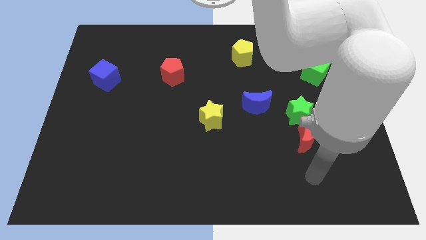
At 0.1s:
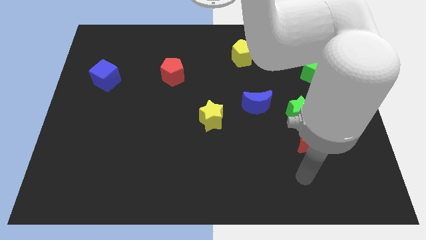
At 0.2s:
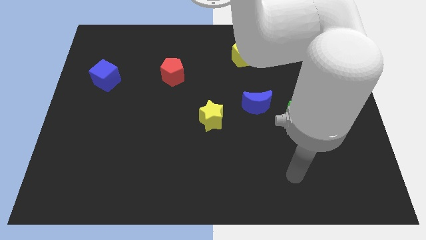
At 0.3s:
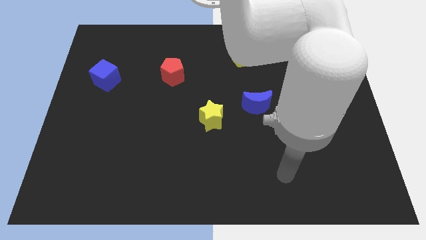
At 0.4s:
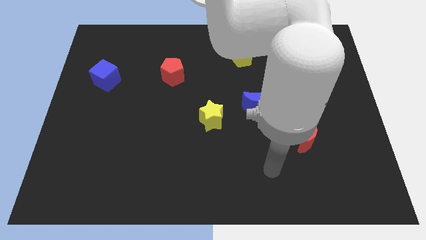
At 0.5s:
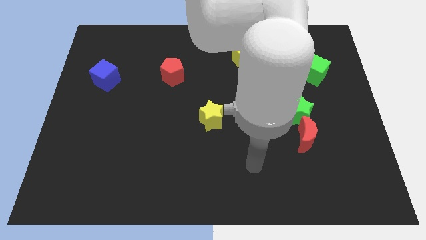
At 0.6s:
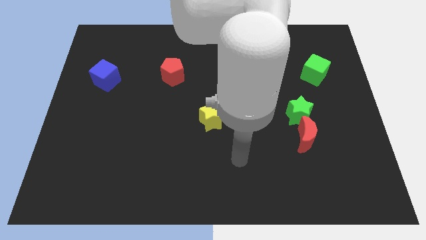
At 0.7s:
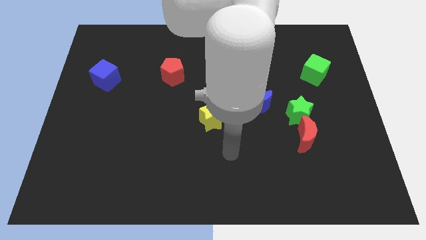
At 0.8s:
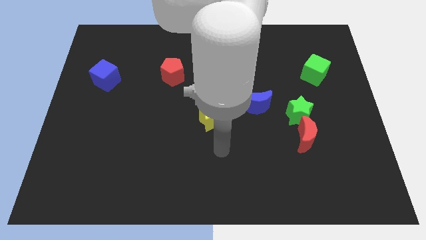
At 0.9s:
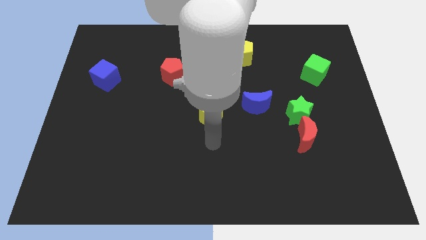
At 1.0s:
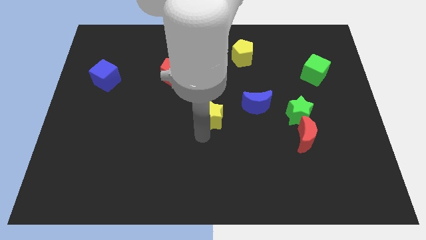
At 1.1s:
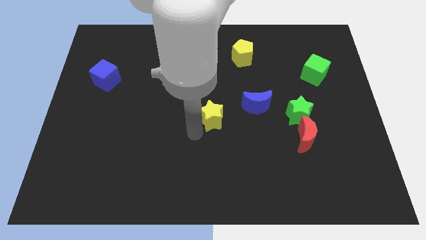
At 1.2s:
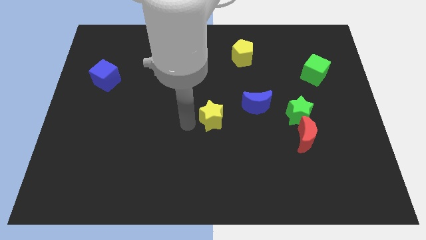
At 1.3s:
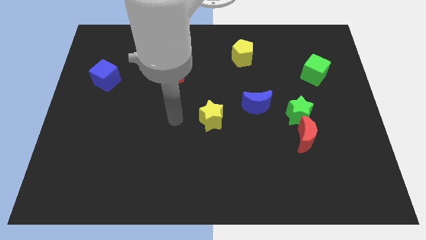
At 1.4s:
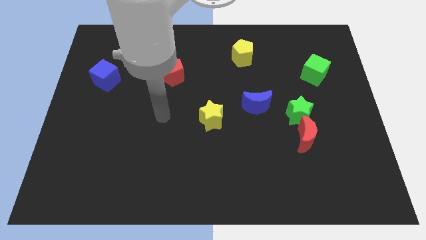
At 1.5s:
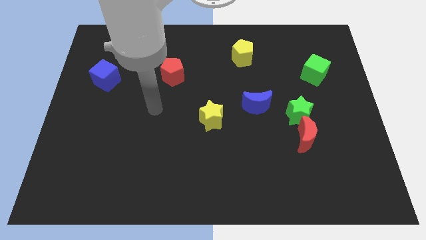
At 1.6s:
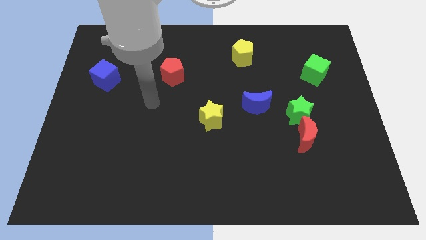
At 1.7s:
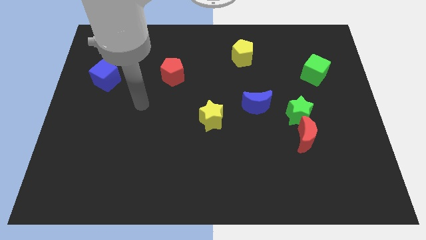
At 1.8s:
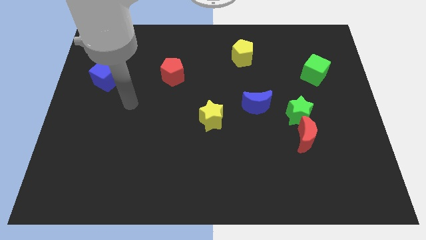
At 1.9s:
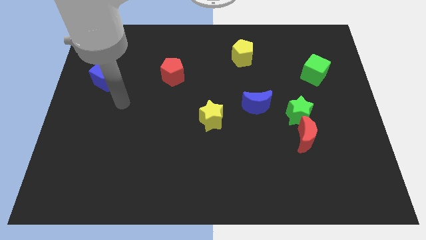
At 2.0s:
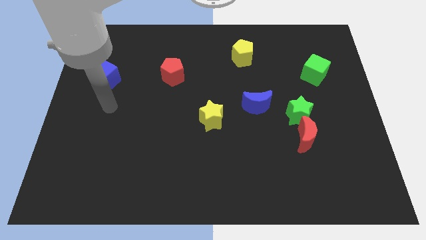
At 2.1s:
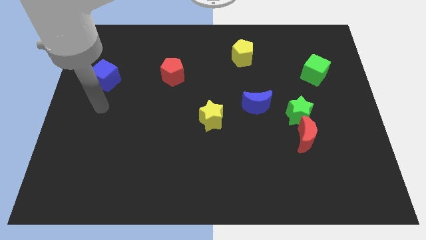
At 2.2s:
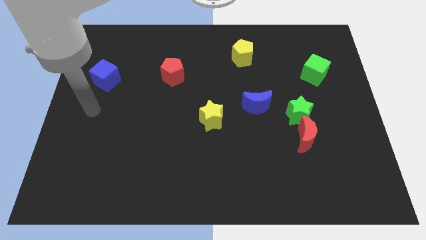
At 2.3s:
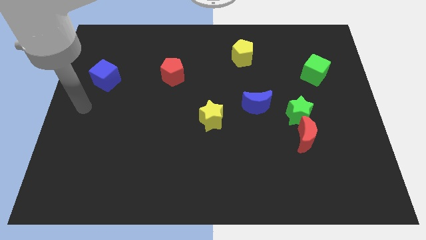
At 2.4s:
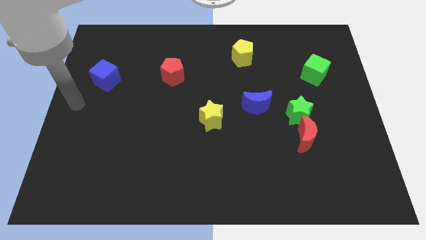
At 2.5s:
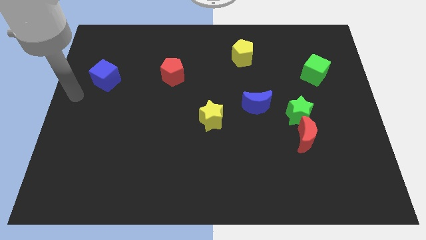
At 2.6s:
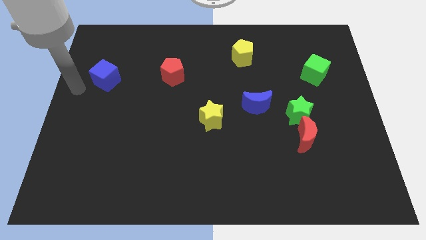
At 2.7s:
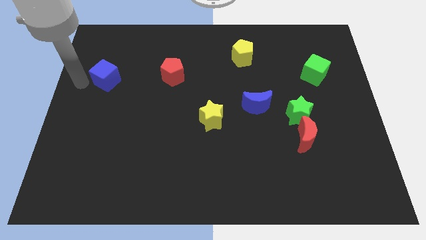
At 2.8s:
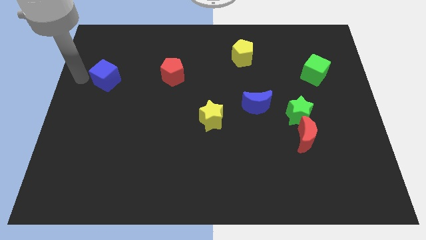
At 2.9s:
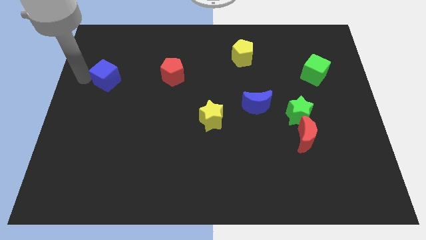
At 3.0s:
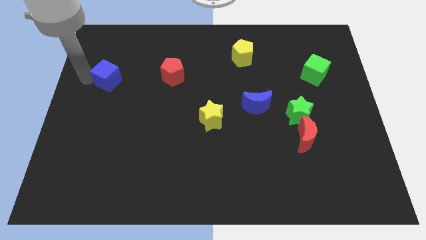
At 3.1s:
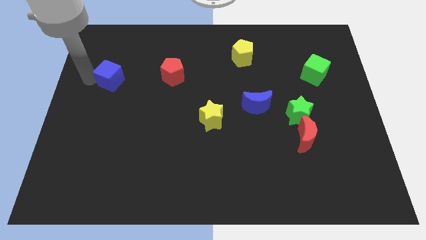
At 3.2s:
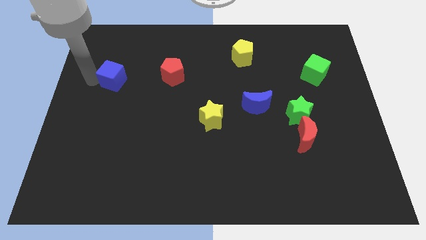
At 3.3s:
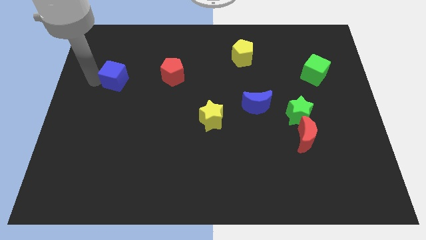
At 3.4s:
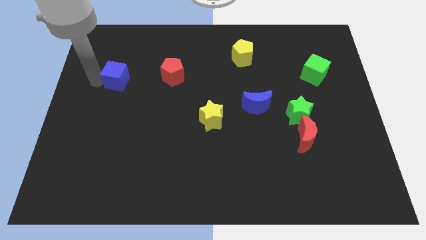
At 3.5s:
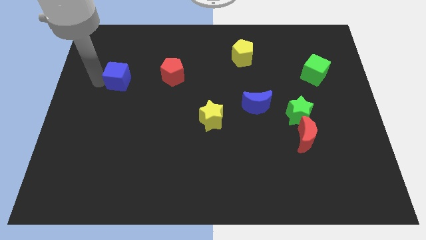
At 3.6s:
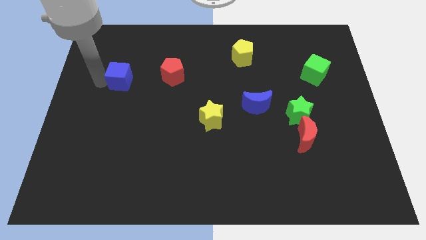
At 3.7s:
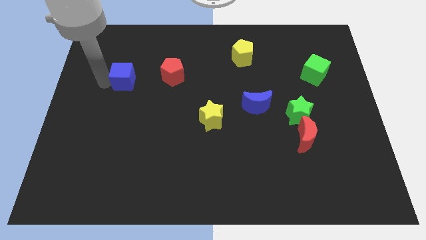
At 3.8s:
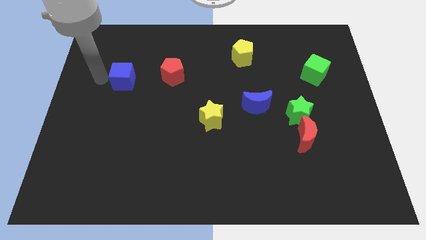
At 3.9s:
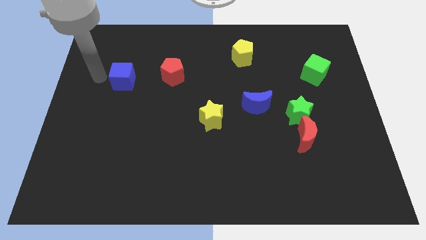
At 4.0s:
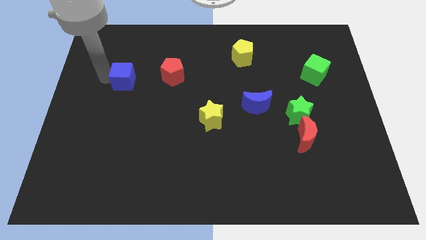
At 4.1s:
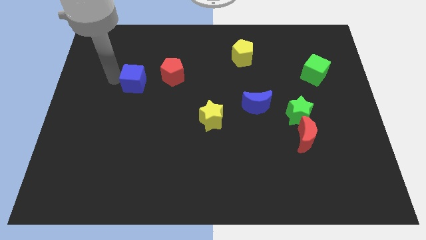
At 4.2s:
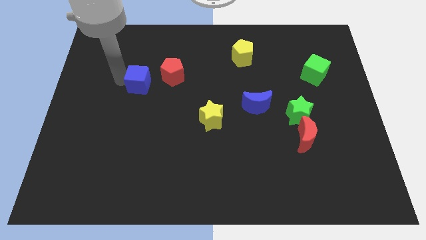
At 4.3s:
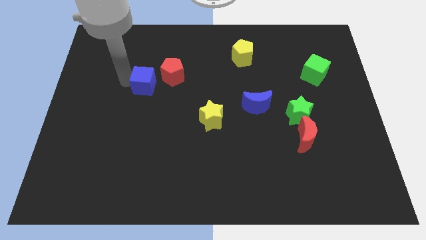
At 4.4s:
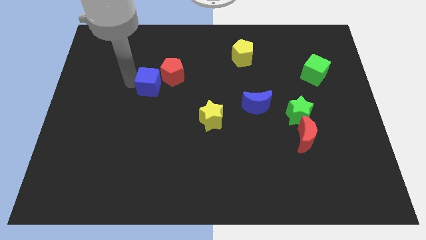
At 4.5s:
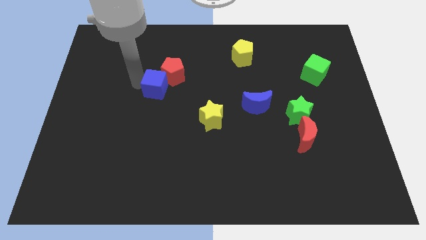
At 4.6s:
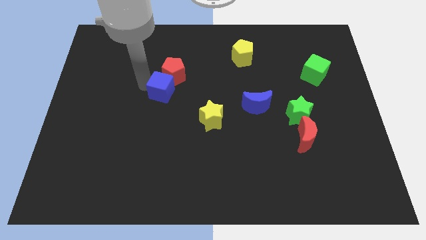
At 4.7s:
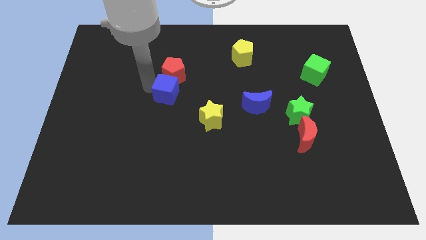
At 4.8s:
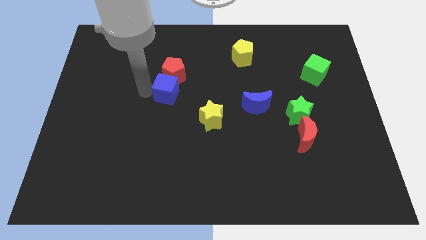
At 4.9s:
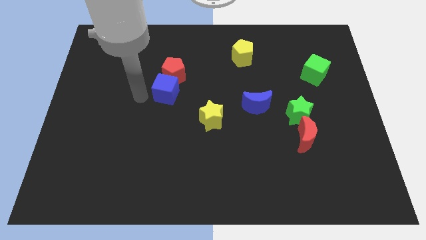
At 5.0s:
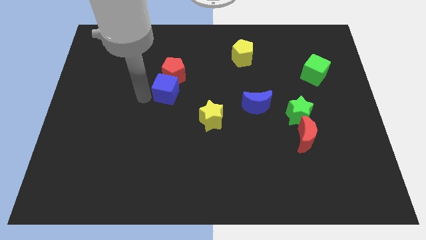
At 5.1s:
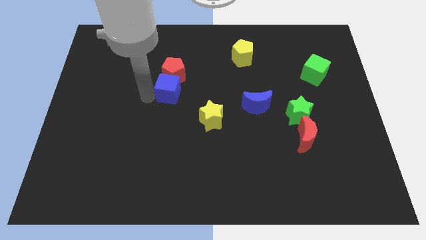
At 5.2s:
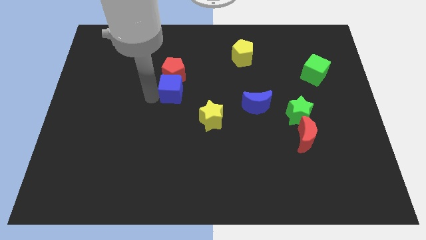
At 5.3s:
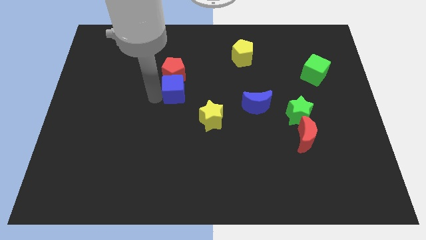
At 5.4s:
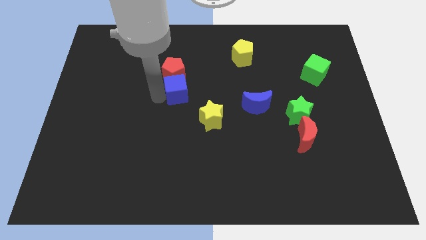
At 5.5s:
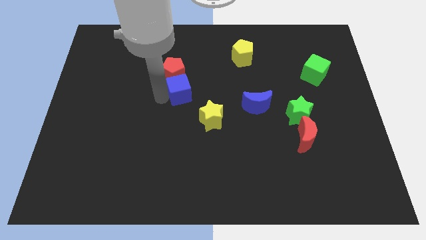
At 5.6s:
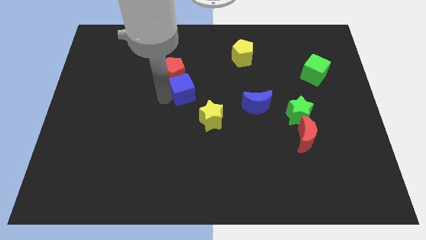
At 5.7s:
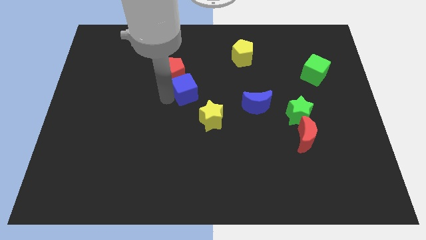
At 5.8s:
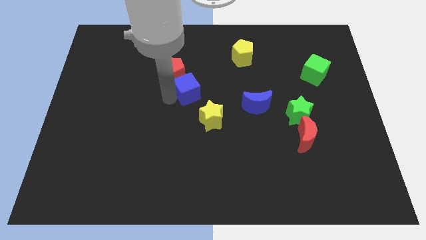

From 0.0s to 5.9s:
slide the blue cube to the right

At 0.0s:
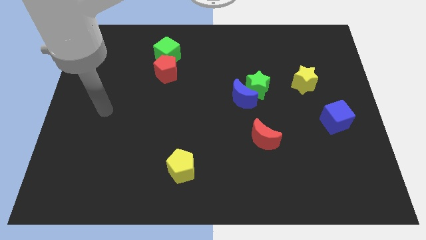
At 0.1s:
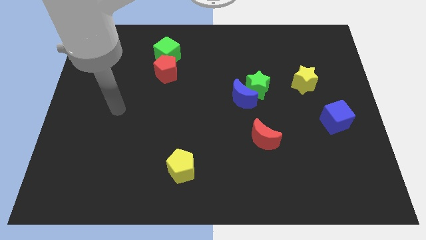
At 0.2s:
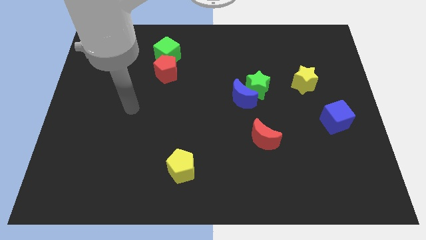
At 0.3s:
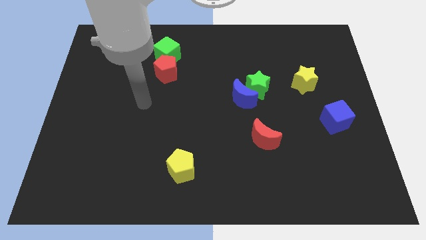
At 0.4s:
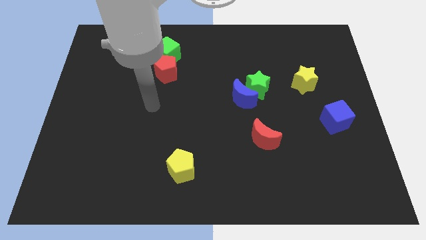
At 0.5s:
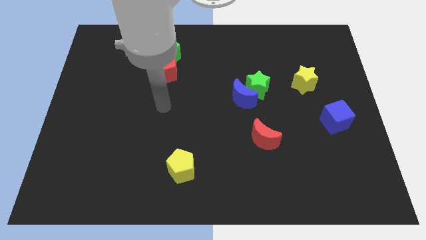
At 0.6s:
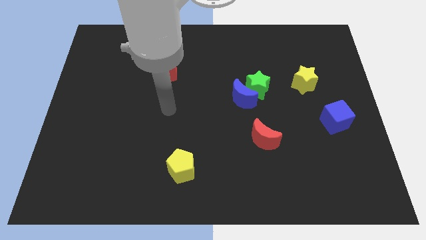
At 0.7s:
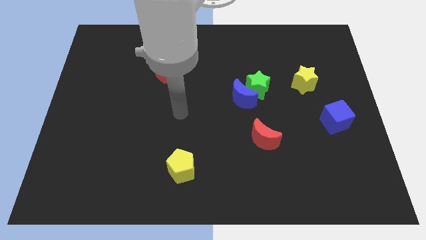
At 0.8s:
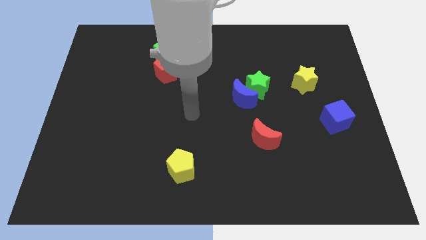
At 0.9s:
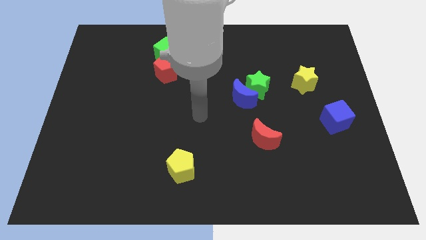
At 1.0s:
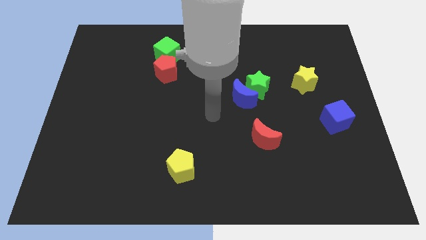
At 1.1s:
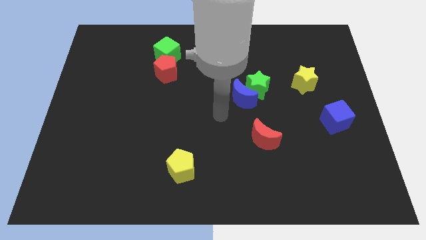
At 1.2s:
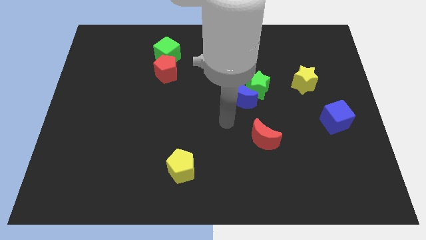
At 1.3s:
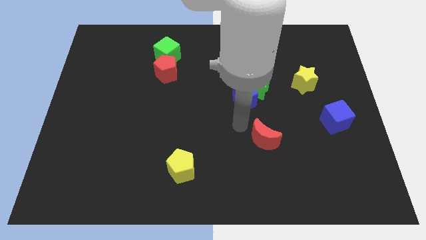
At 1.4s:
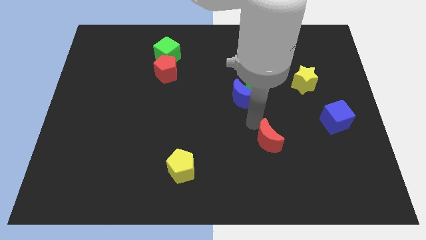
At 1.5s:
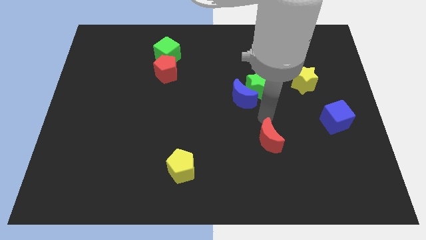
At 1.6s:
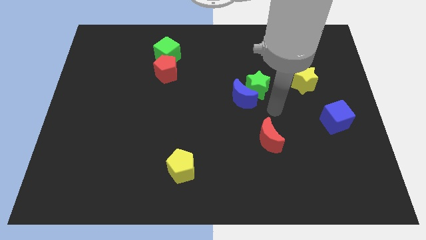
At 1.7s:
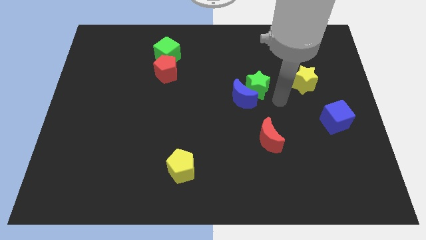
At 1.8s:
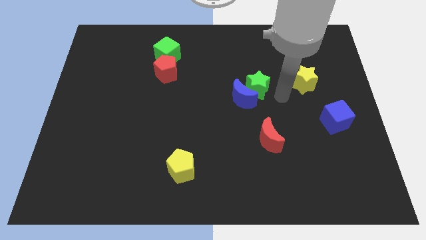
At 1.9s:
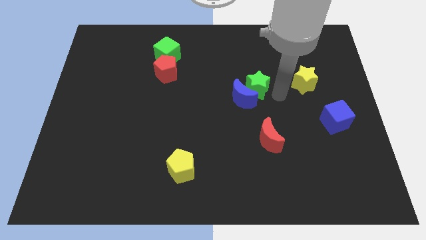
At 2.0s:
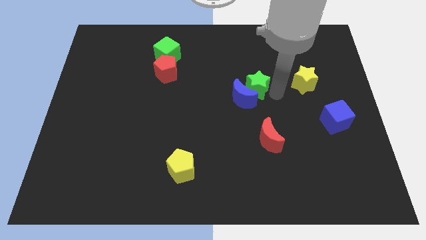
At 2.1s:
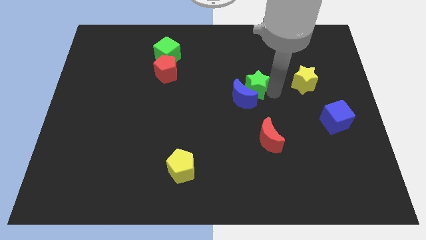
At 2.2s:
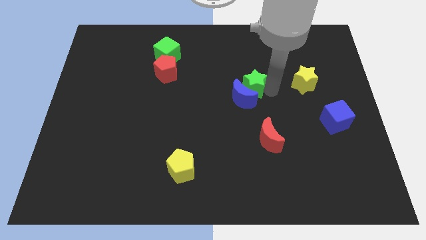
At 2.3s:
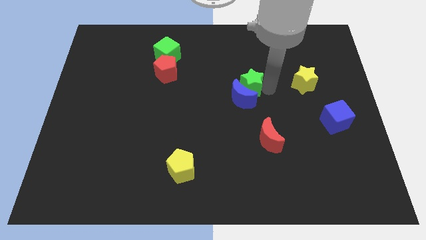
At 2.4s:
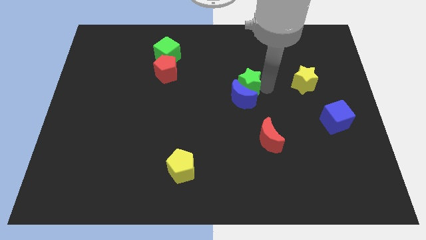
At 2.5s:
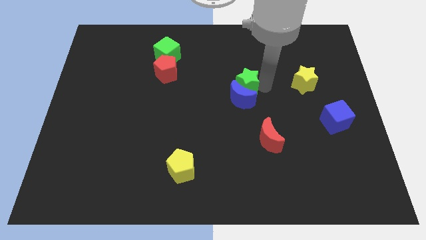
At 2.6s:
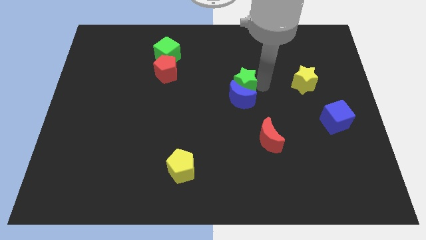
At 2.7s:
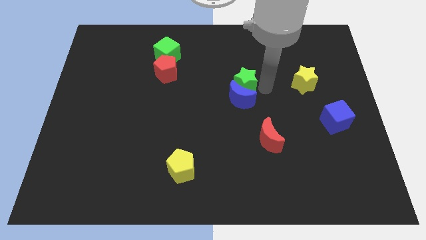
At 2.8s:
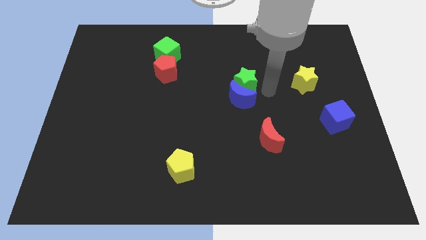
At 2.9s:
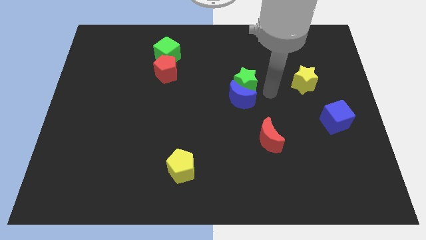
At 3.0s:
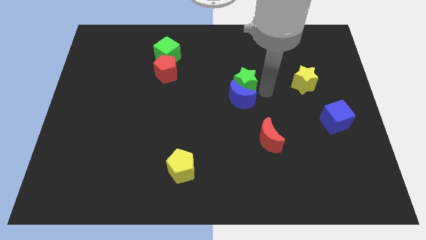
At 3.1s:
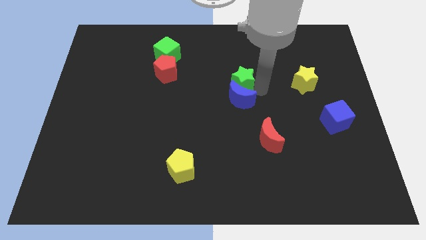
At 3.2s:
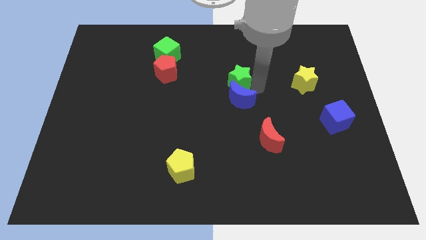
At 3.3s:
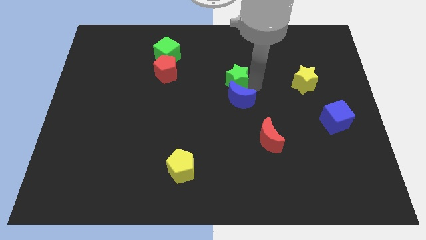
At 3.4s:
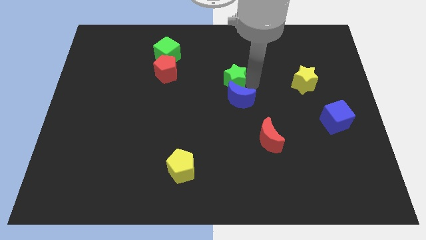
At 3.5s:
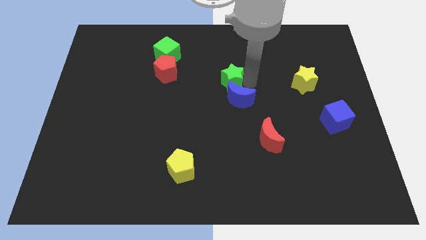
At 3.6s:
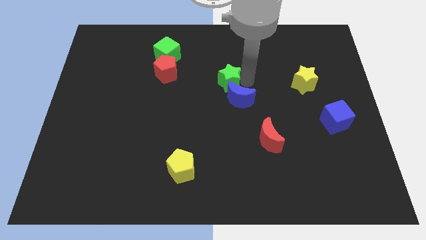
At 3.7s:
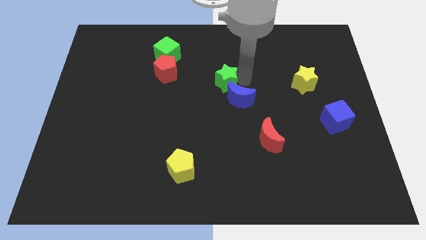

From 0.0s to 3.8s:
slide the green star left somewhat
